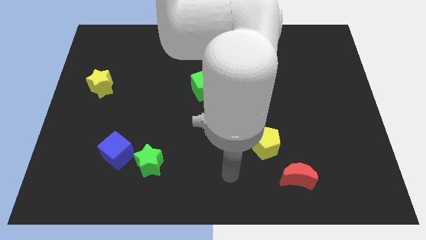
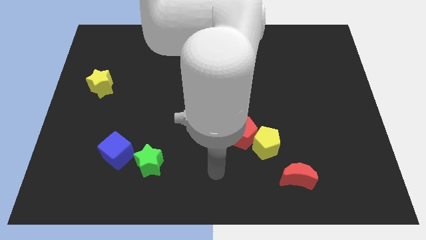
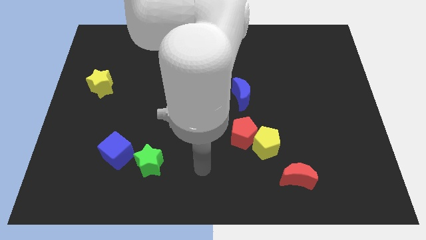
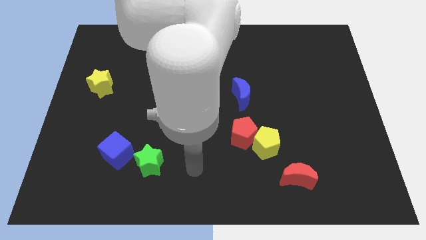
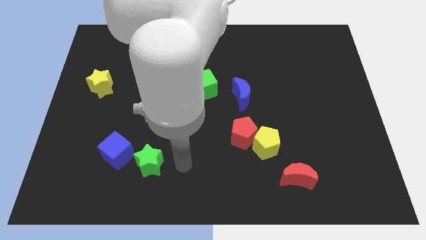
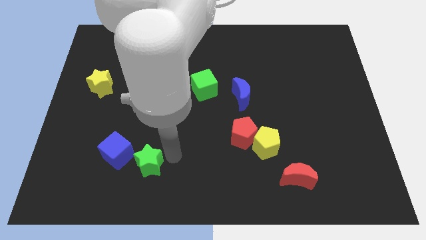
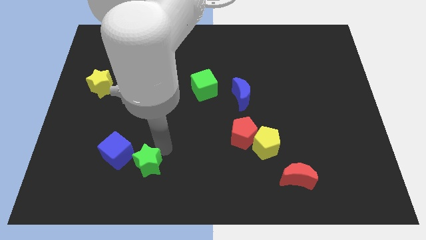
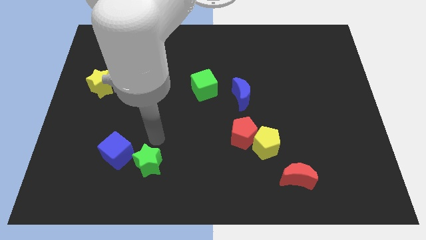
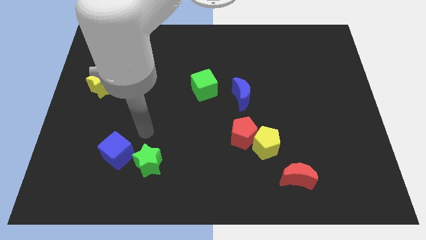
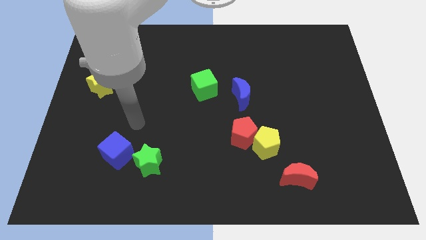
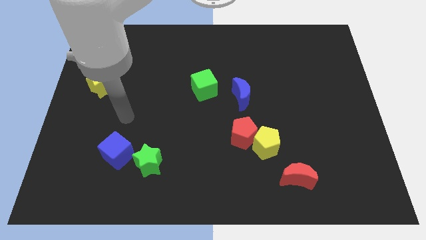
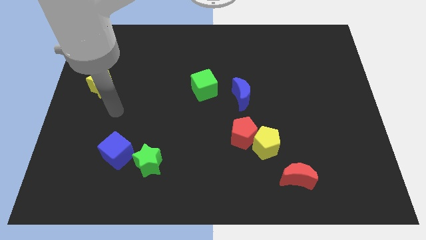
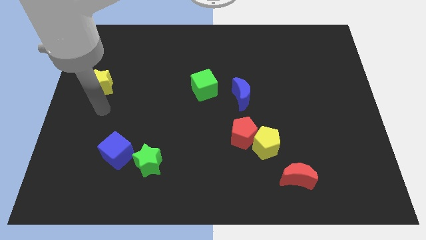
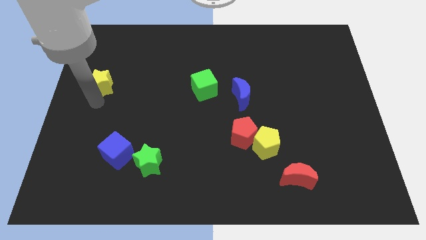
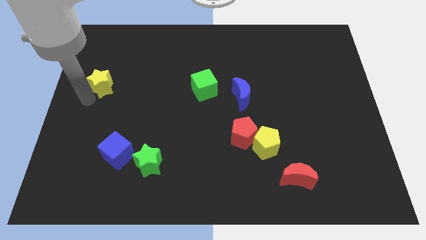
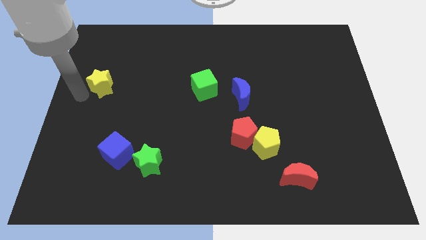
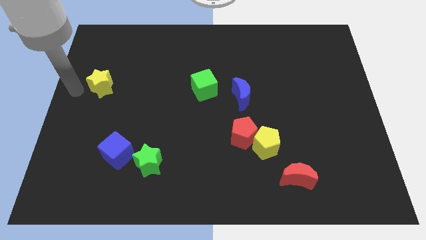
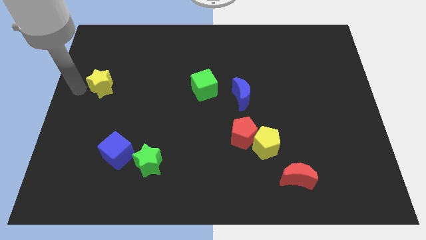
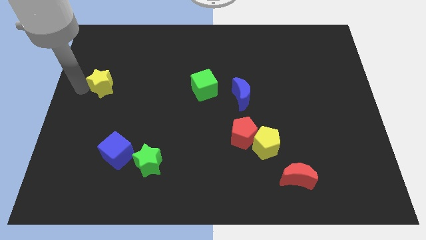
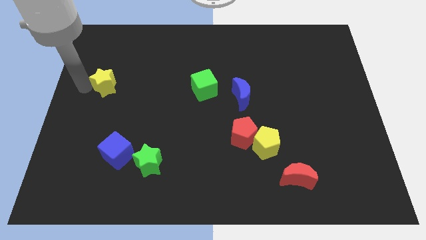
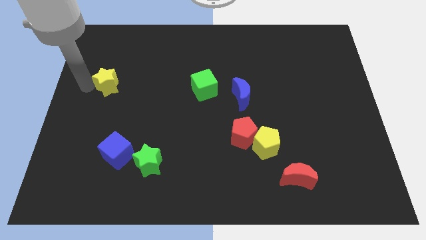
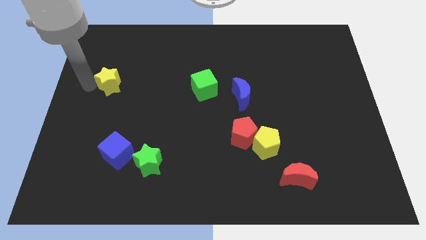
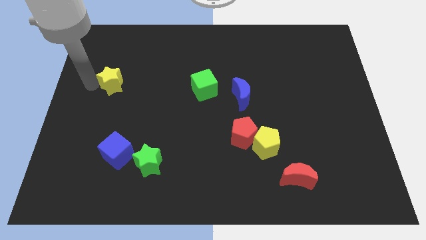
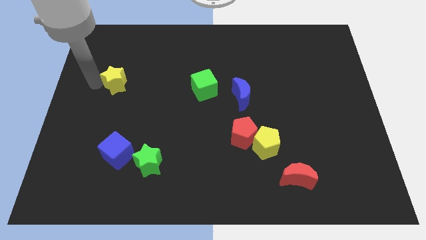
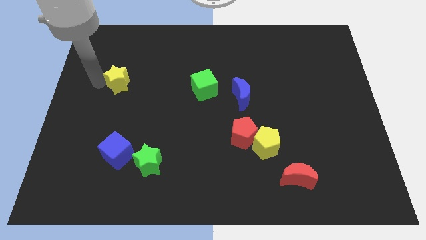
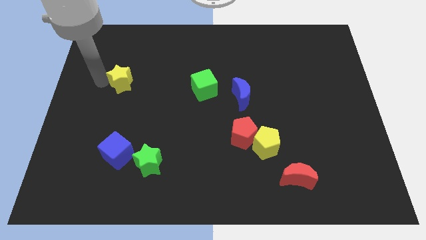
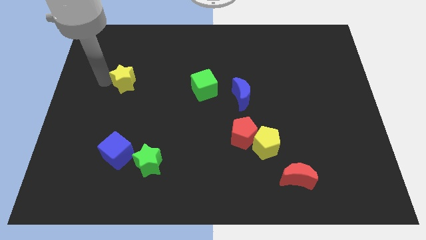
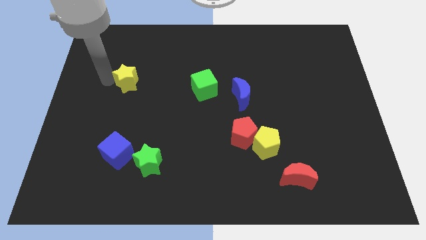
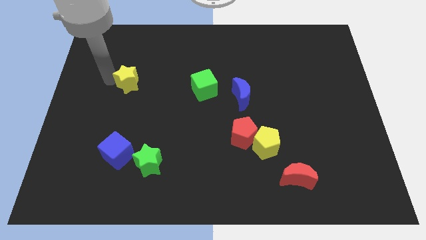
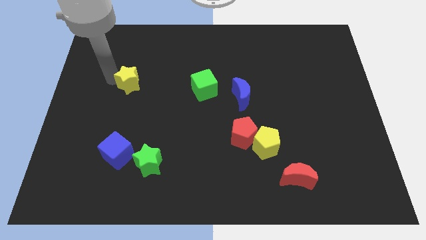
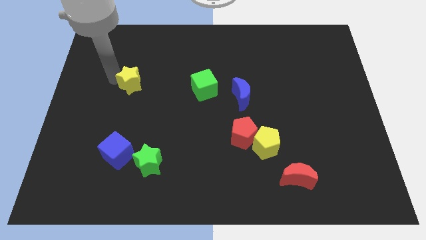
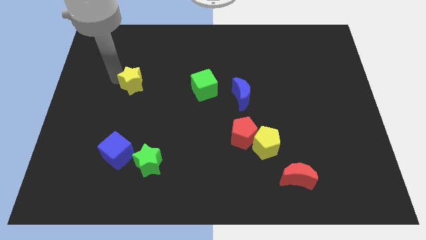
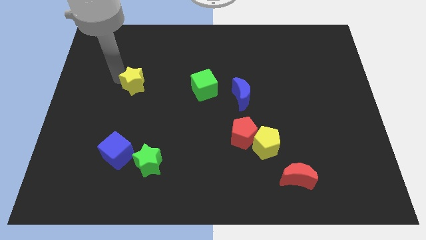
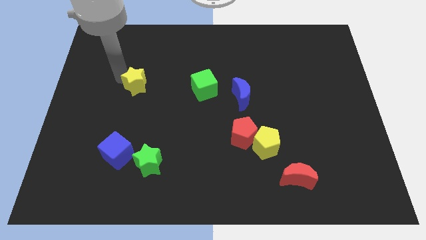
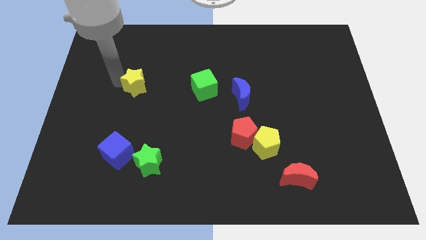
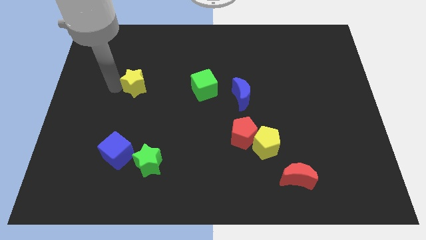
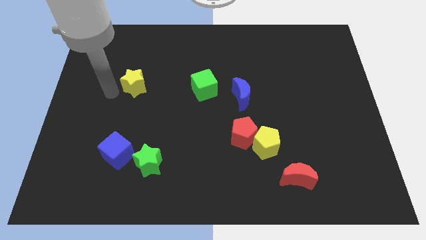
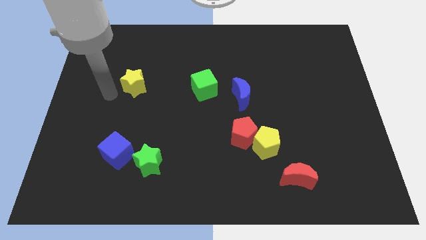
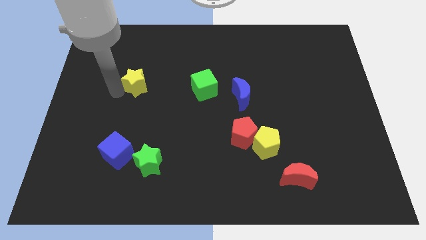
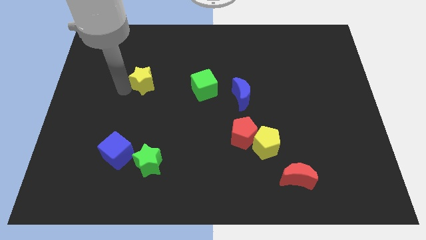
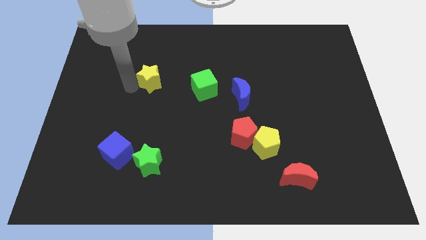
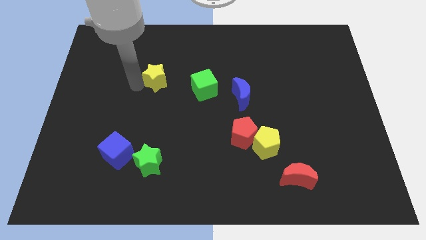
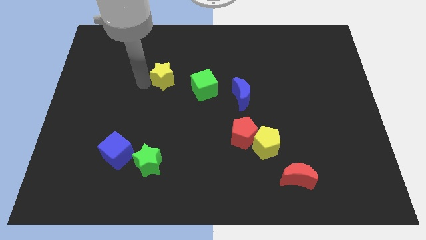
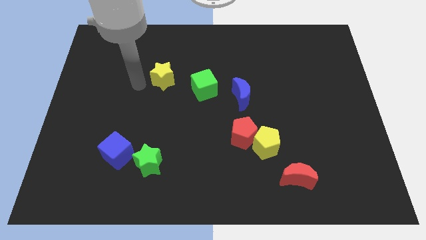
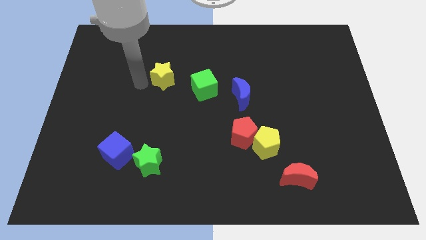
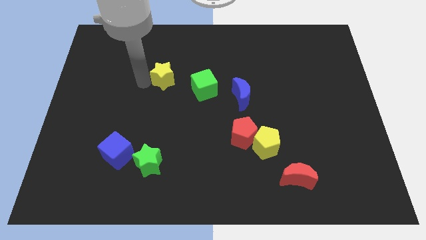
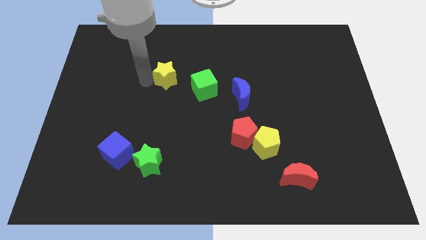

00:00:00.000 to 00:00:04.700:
put the yellow star to the top left of the green cube

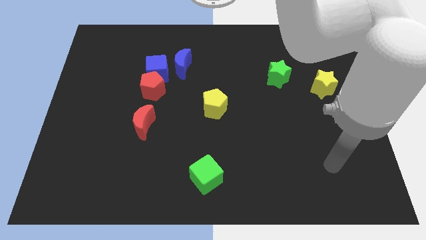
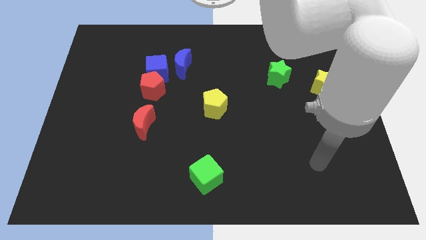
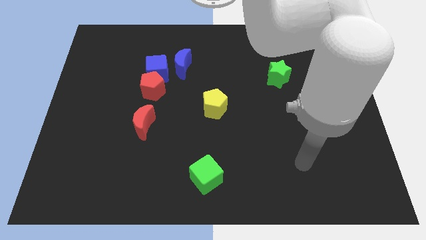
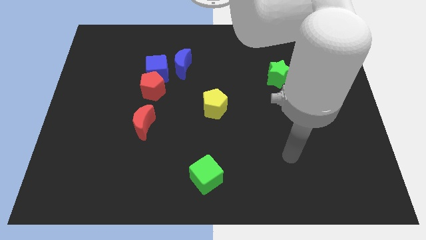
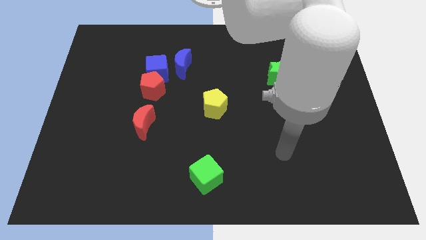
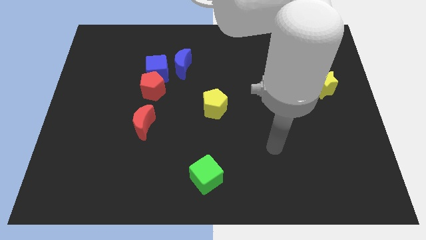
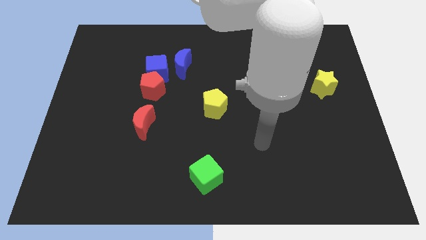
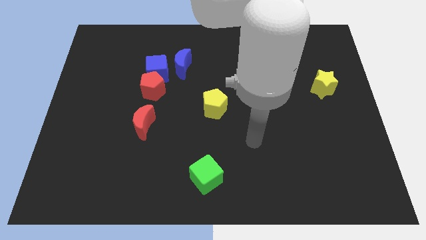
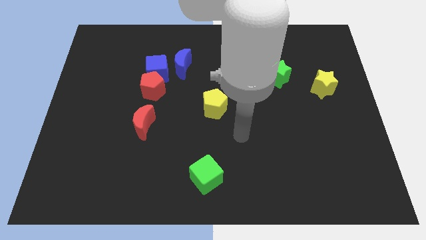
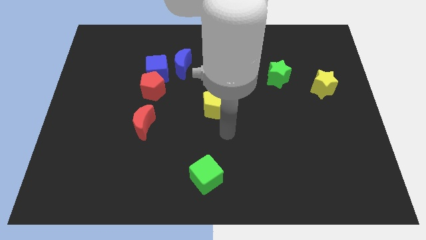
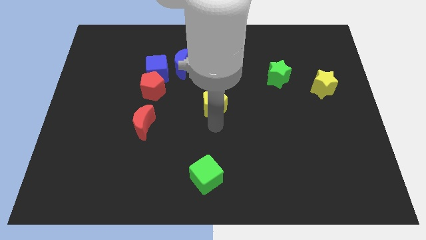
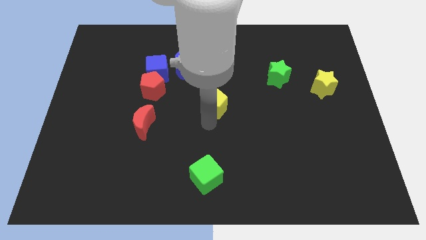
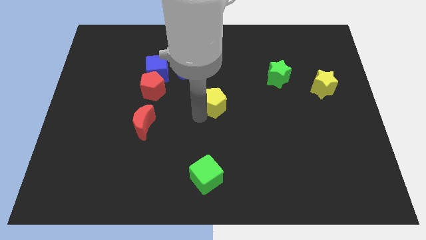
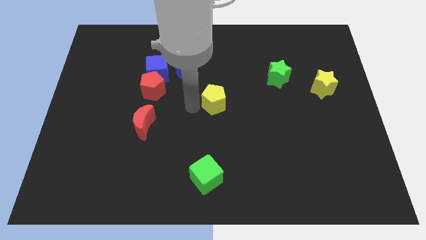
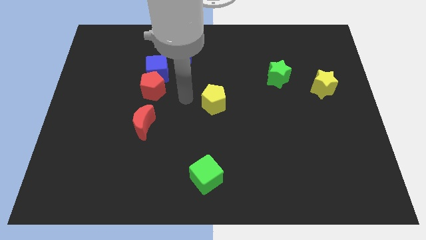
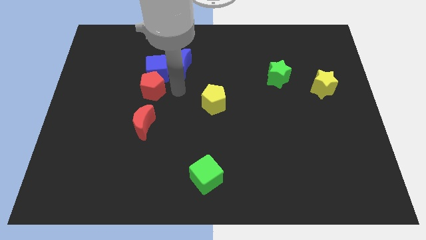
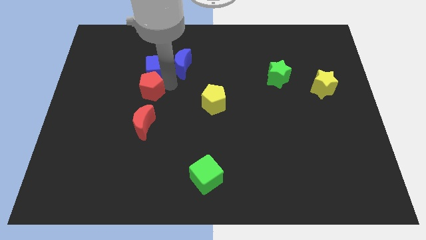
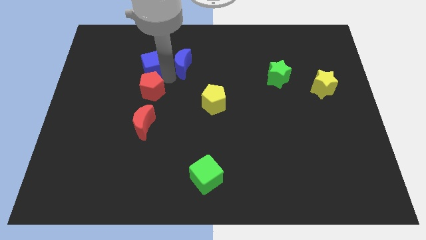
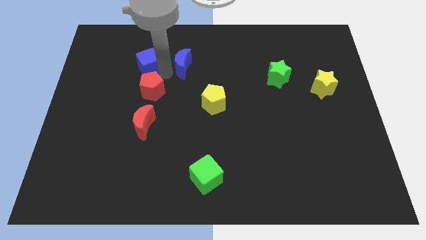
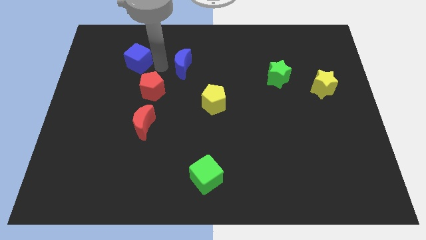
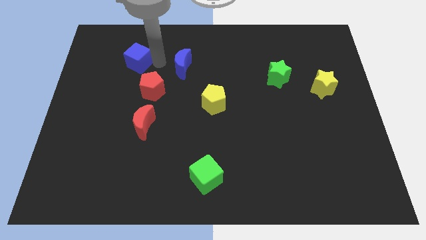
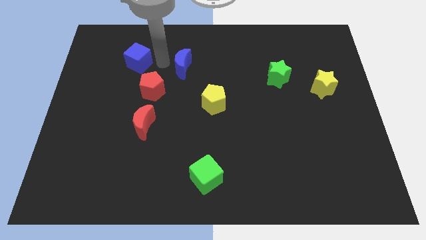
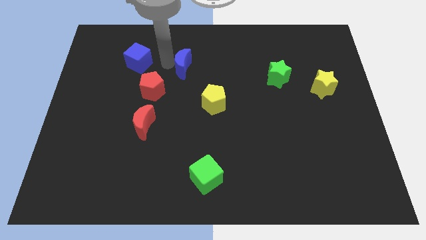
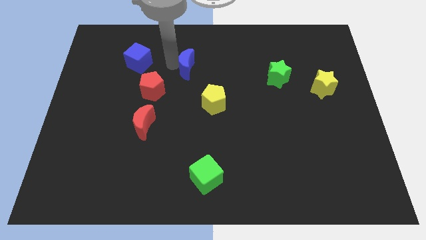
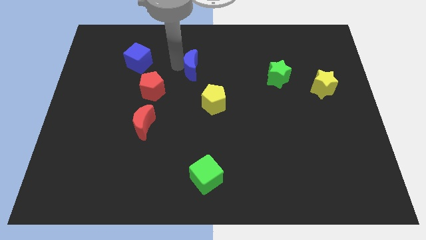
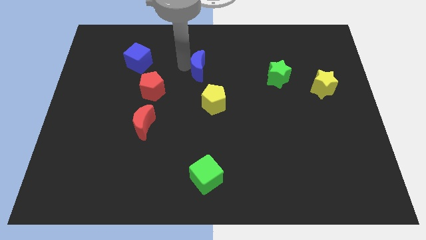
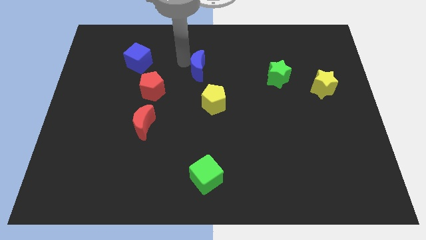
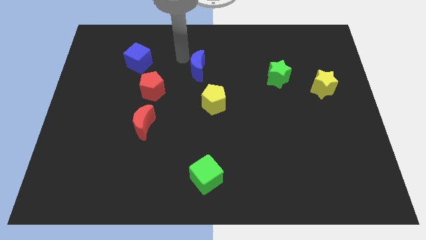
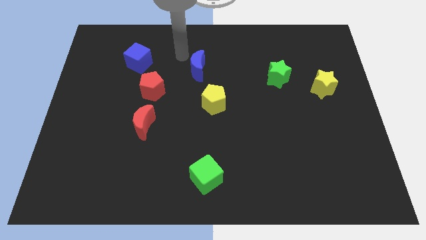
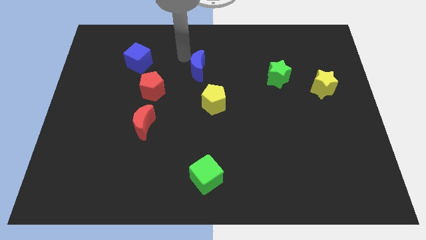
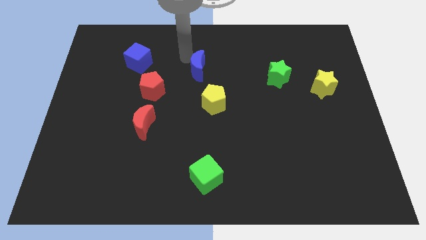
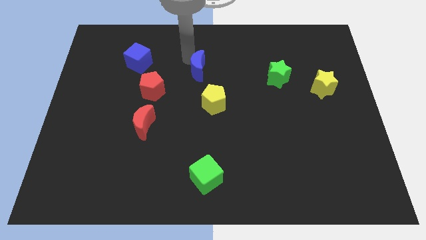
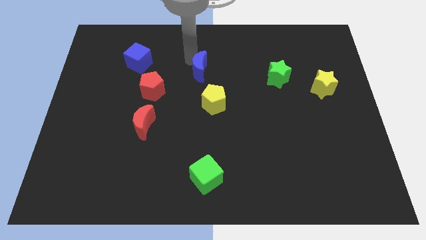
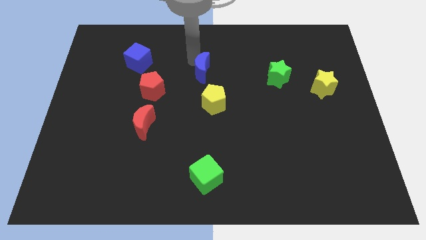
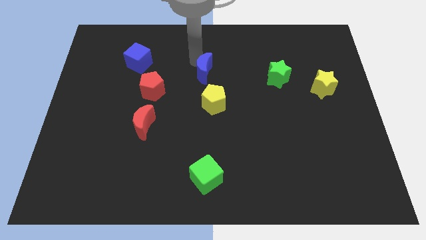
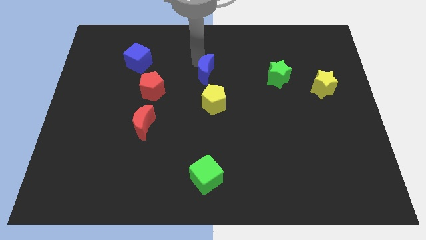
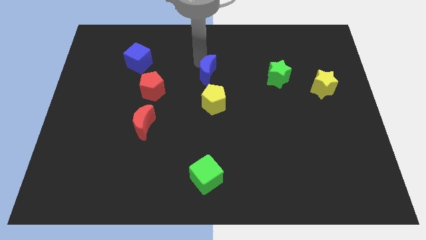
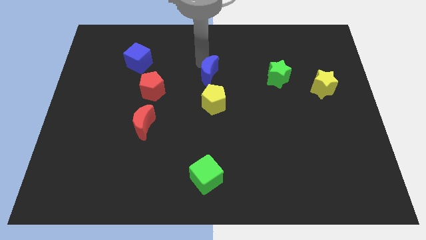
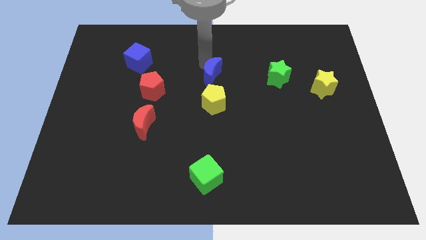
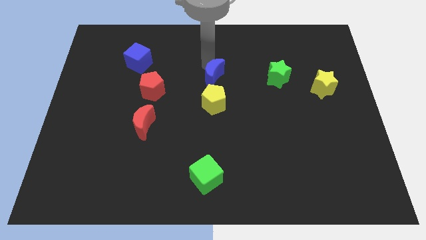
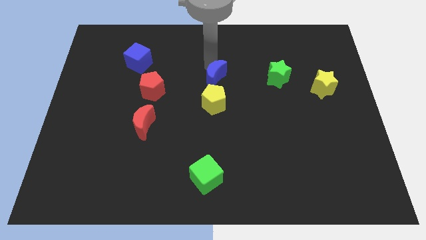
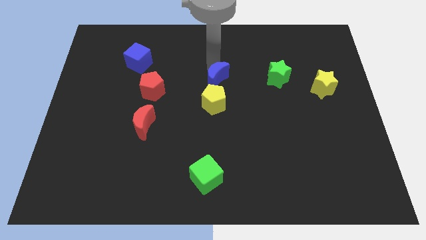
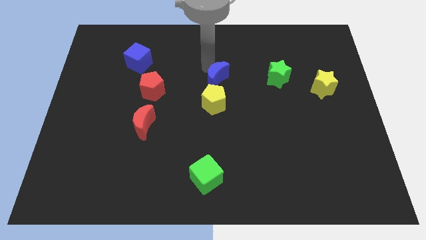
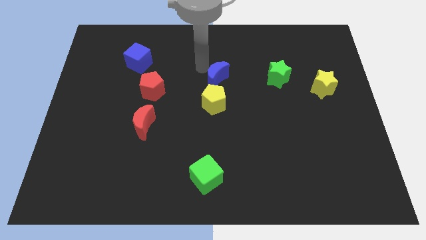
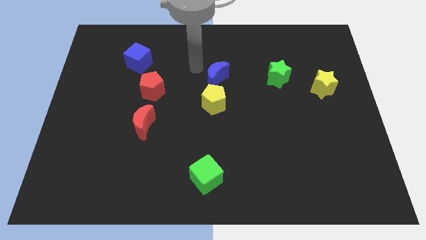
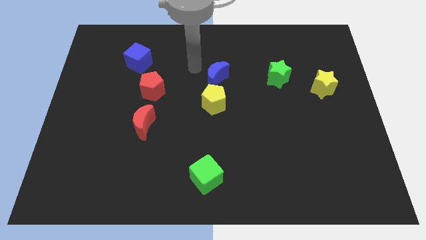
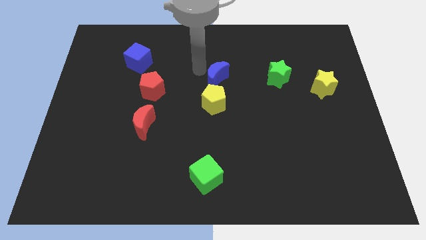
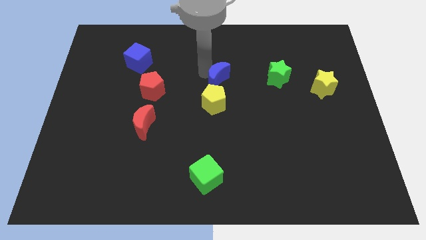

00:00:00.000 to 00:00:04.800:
slide the blue moon diagonally up and to the right of the yellow pentagon
